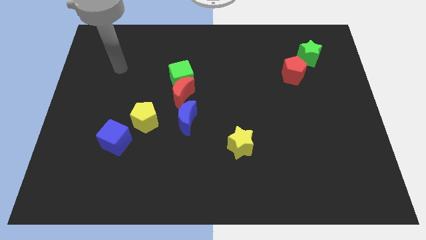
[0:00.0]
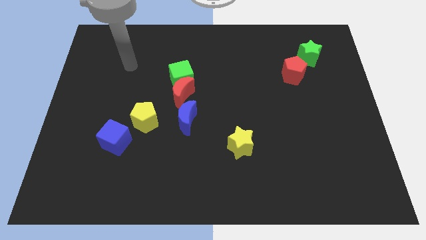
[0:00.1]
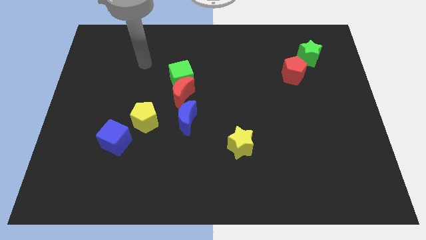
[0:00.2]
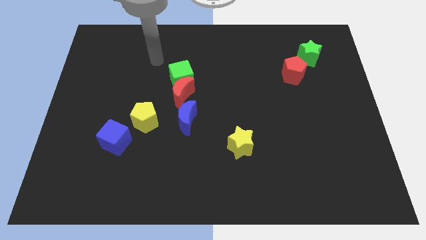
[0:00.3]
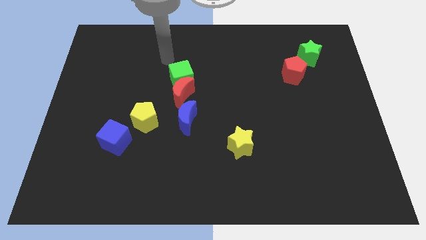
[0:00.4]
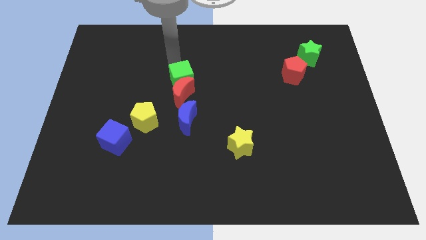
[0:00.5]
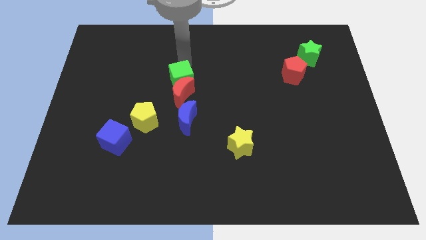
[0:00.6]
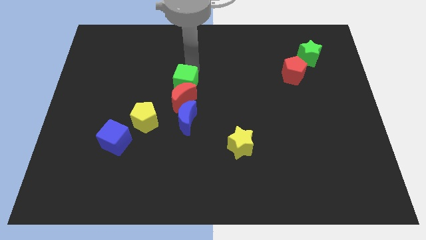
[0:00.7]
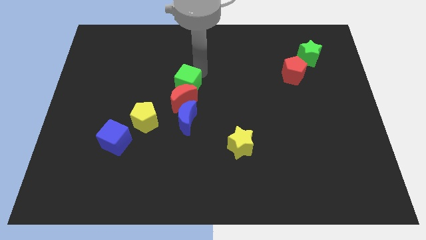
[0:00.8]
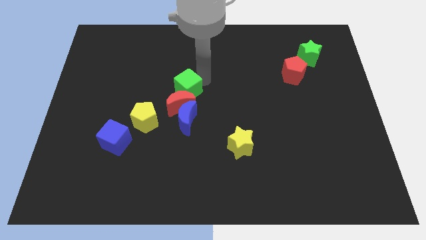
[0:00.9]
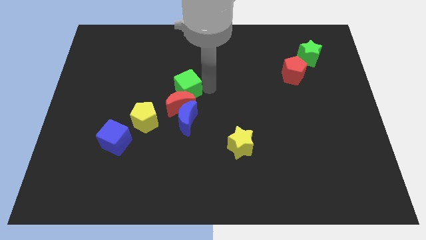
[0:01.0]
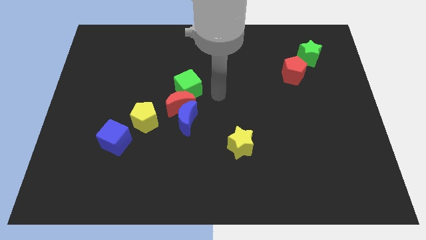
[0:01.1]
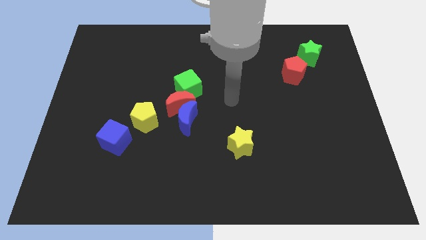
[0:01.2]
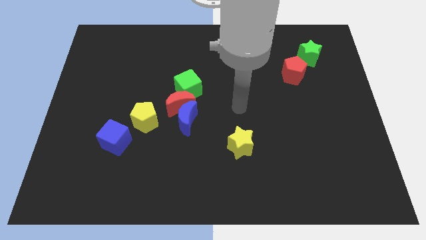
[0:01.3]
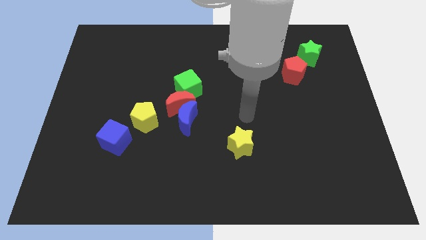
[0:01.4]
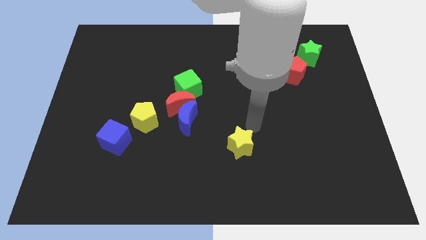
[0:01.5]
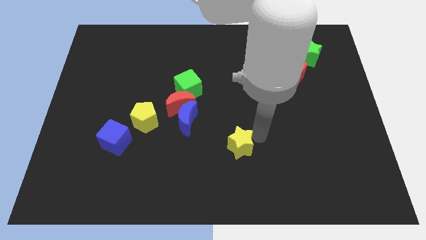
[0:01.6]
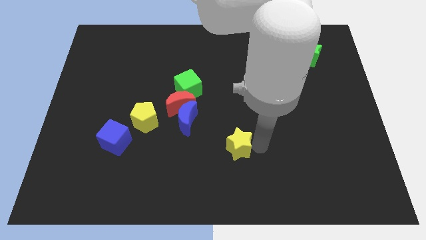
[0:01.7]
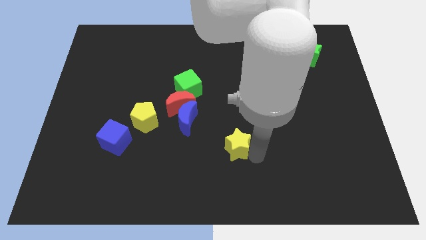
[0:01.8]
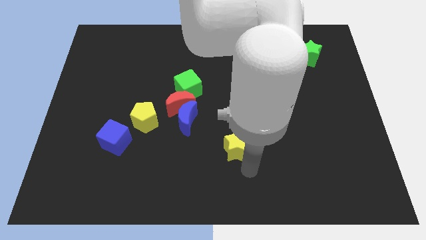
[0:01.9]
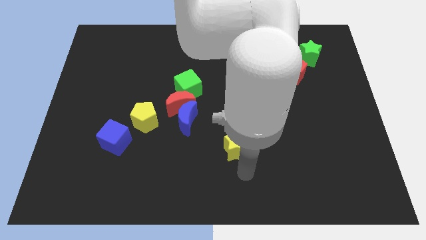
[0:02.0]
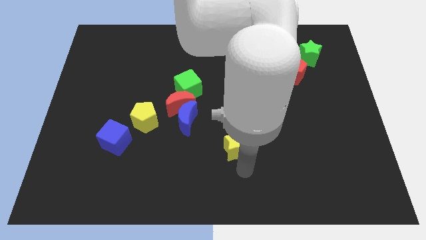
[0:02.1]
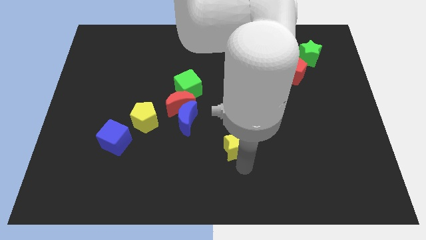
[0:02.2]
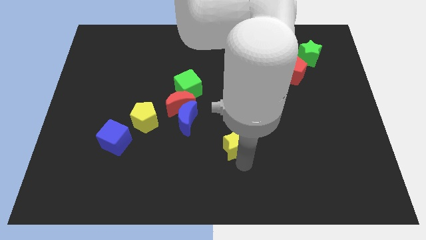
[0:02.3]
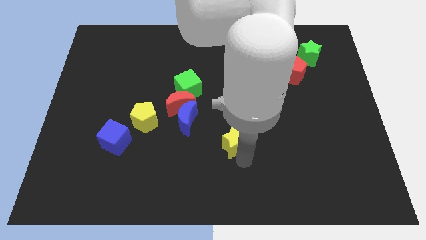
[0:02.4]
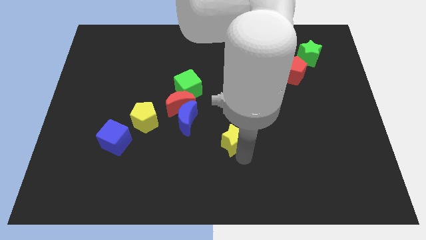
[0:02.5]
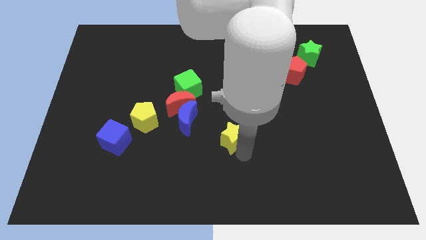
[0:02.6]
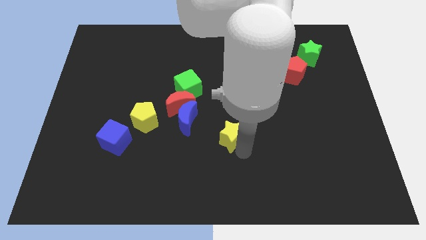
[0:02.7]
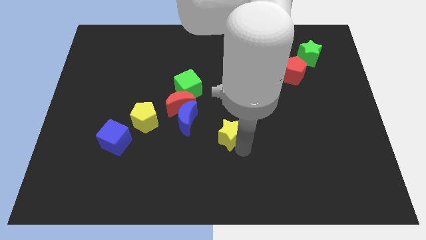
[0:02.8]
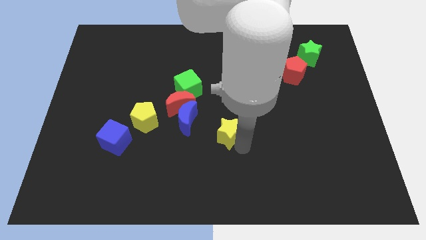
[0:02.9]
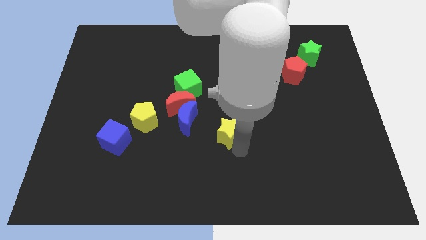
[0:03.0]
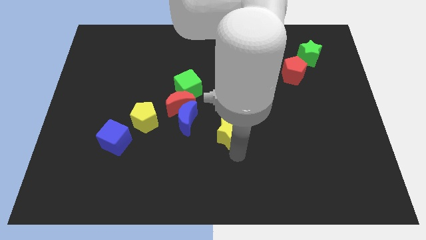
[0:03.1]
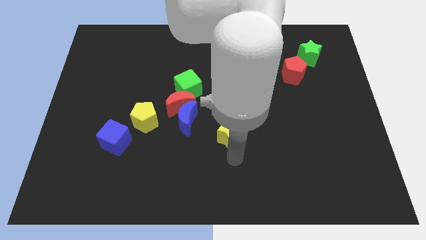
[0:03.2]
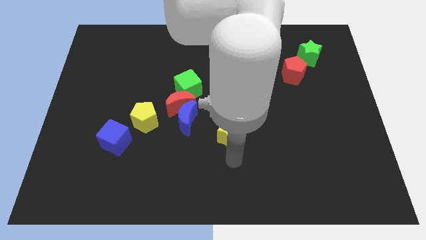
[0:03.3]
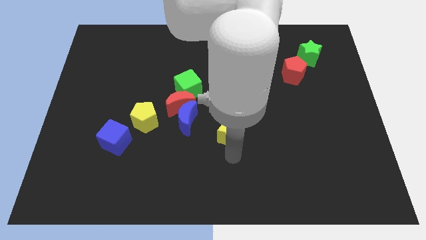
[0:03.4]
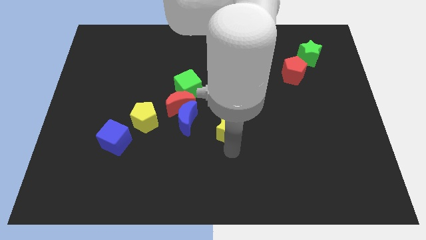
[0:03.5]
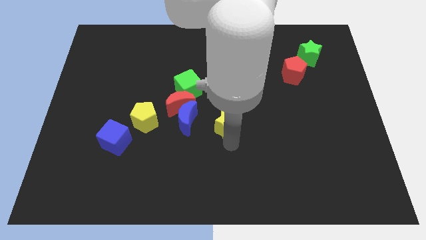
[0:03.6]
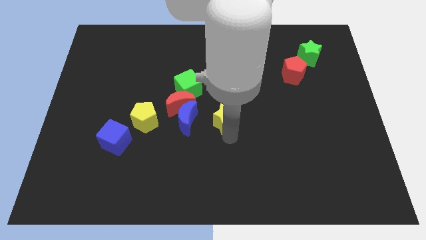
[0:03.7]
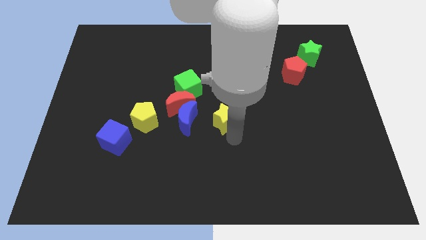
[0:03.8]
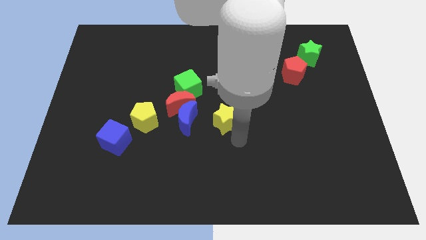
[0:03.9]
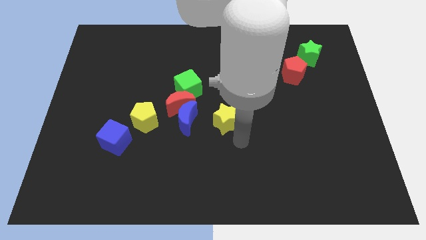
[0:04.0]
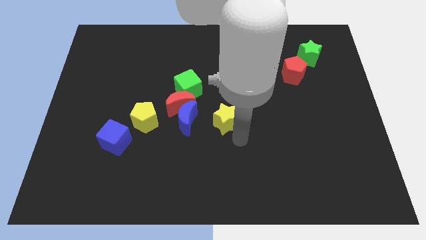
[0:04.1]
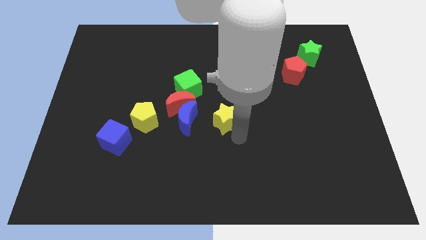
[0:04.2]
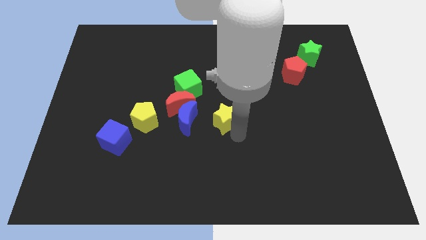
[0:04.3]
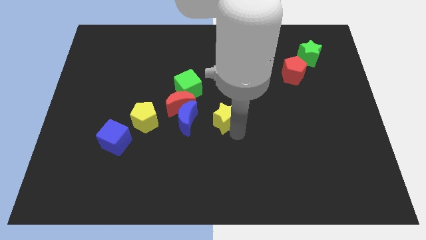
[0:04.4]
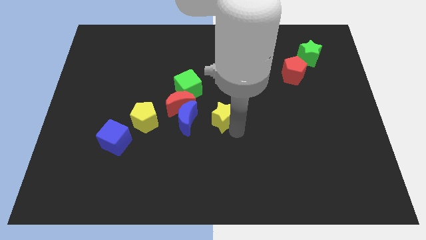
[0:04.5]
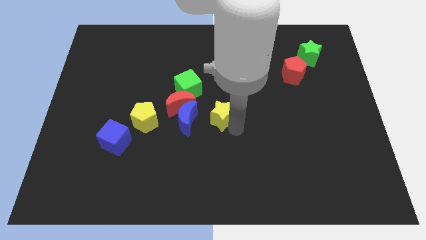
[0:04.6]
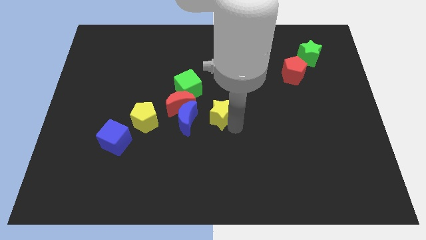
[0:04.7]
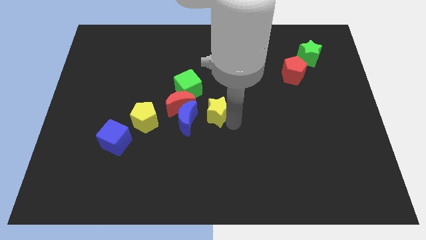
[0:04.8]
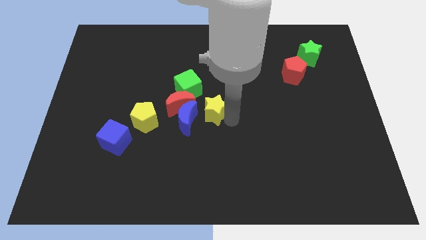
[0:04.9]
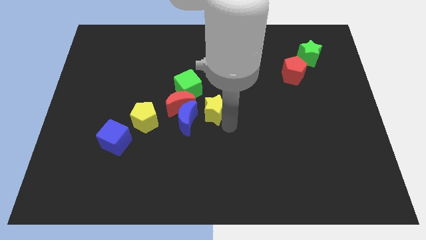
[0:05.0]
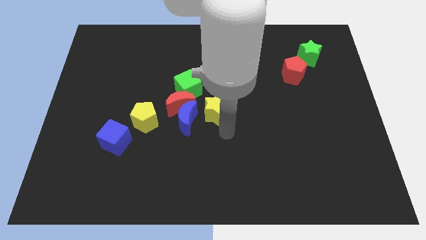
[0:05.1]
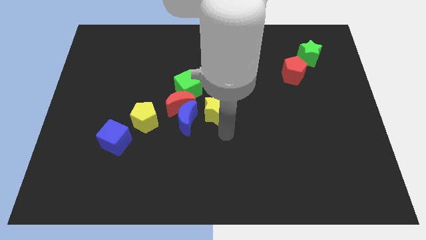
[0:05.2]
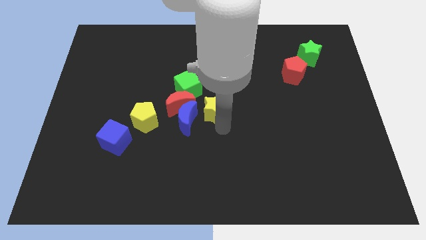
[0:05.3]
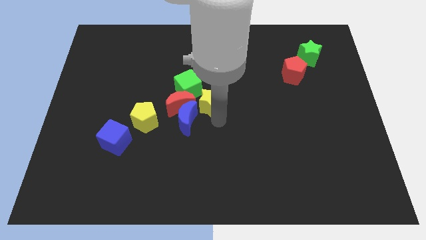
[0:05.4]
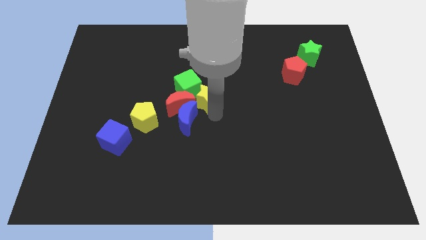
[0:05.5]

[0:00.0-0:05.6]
slide the yellow star towards the green cube

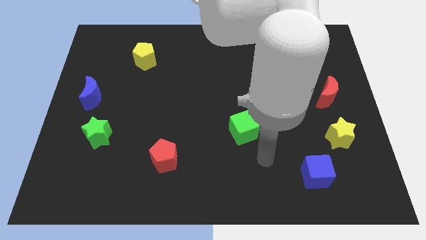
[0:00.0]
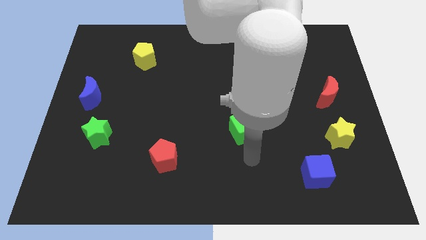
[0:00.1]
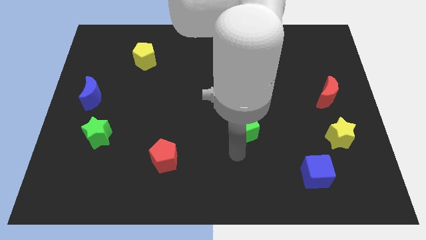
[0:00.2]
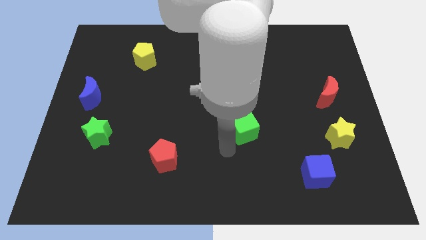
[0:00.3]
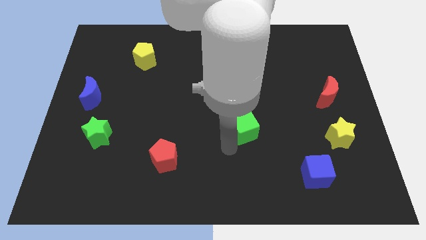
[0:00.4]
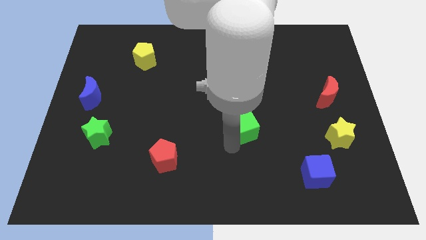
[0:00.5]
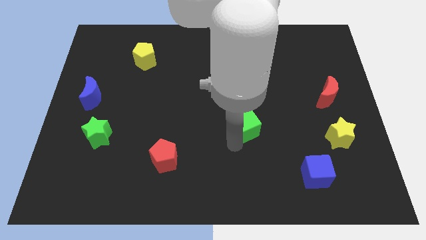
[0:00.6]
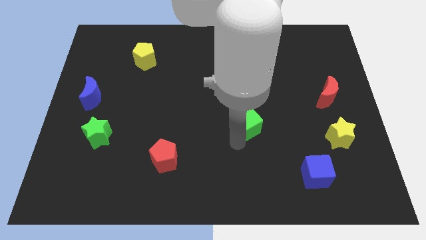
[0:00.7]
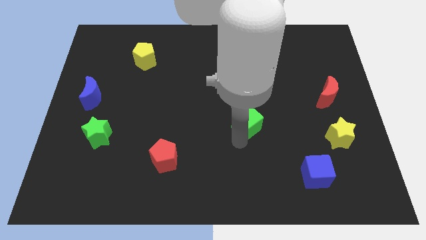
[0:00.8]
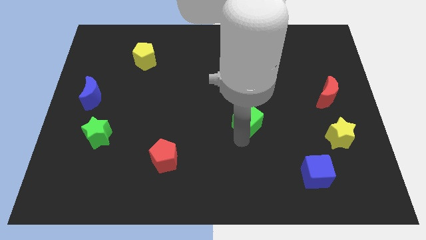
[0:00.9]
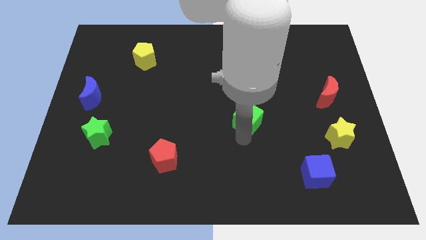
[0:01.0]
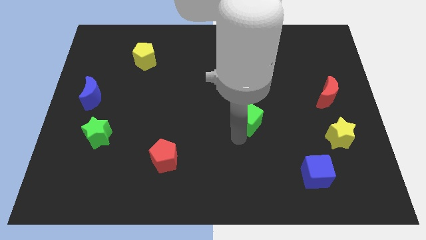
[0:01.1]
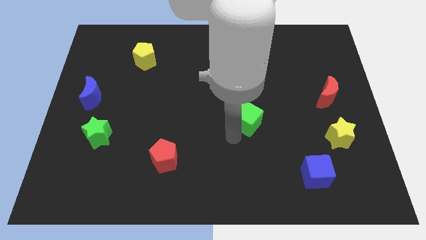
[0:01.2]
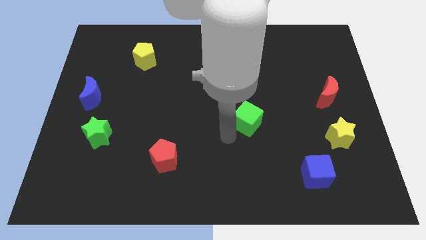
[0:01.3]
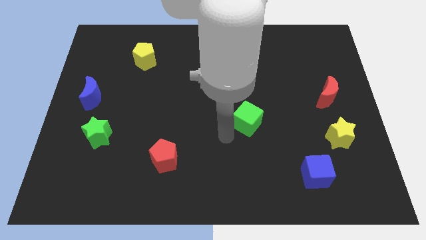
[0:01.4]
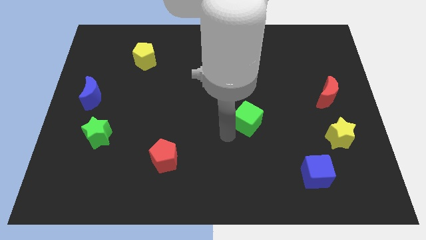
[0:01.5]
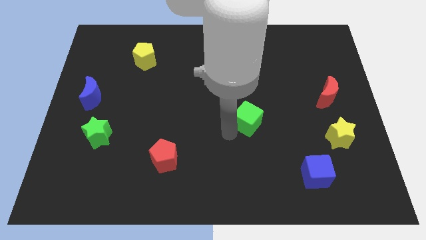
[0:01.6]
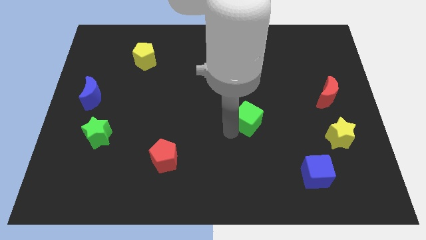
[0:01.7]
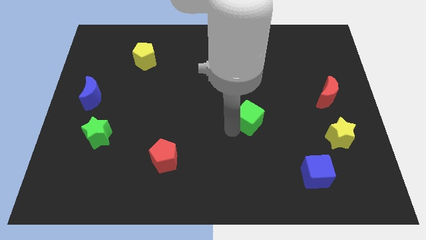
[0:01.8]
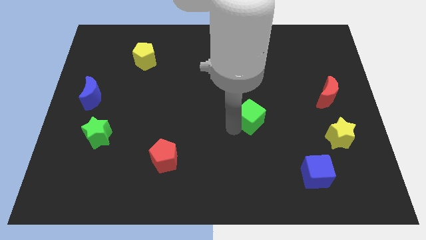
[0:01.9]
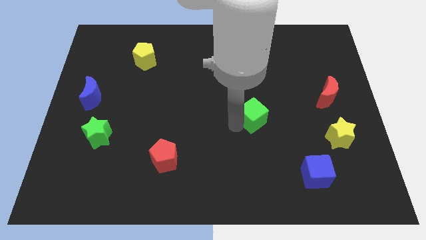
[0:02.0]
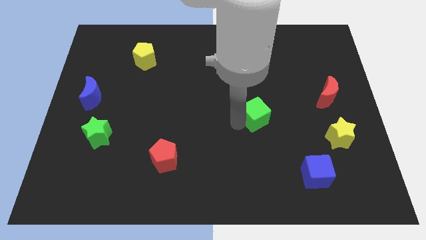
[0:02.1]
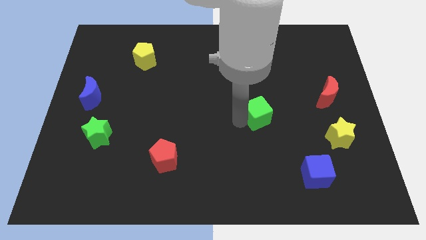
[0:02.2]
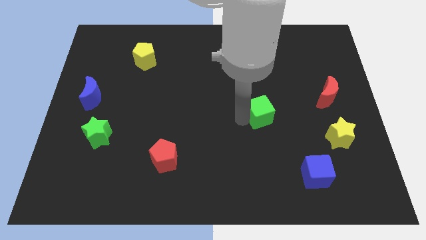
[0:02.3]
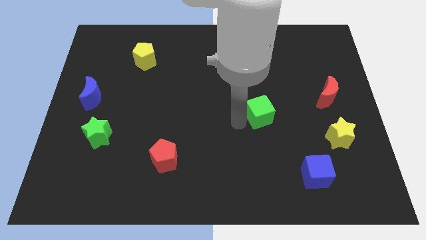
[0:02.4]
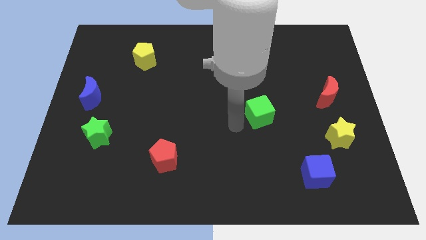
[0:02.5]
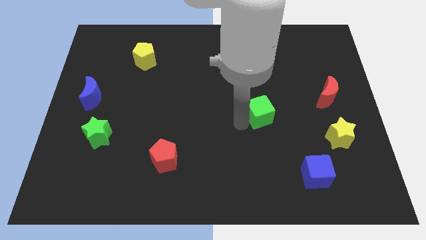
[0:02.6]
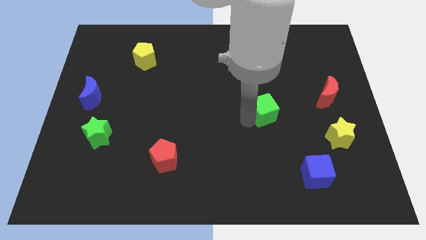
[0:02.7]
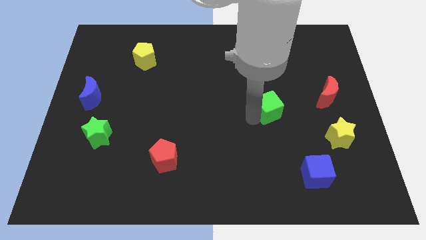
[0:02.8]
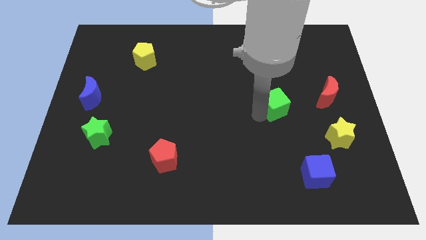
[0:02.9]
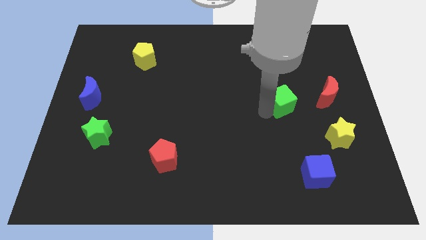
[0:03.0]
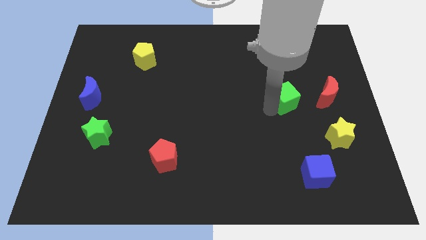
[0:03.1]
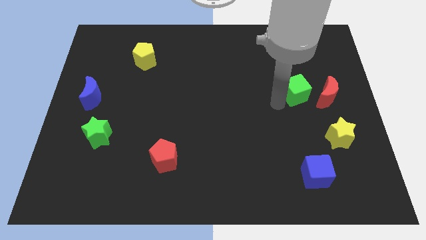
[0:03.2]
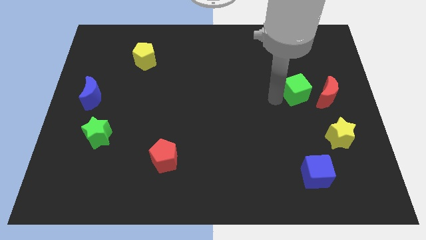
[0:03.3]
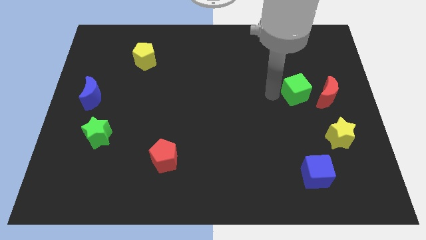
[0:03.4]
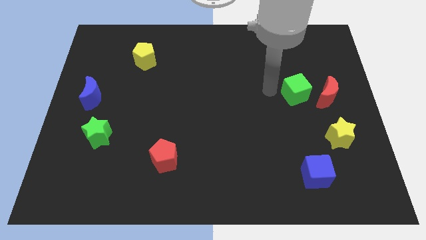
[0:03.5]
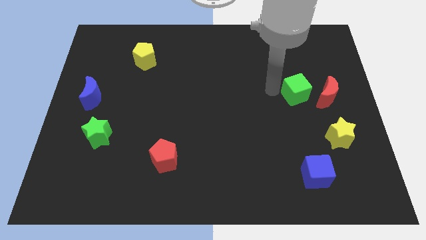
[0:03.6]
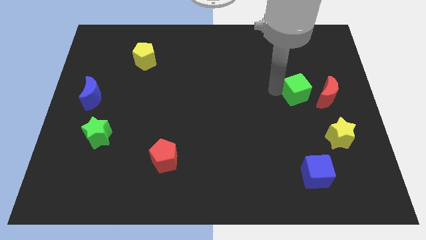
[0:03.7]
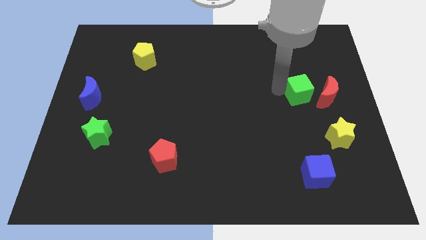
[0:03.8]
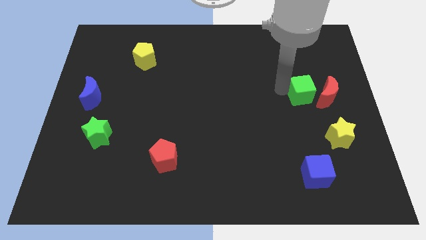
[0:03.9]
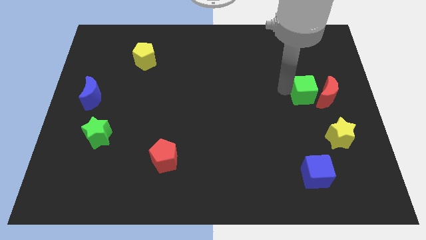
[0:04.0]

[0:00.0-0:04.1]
push the green cube to the red moon
